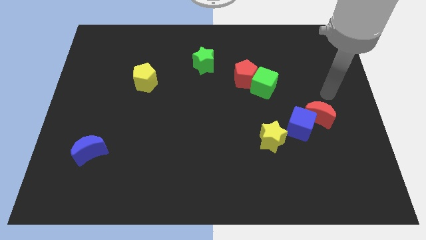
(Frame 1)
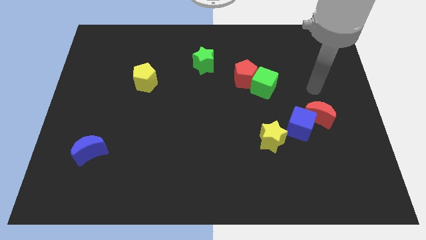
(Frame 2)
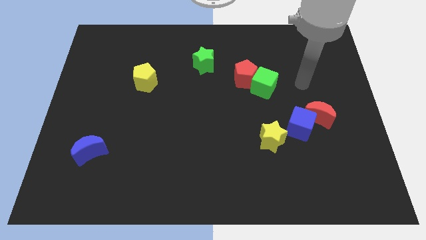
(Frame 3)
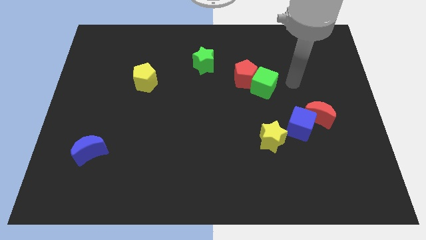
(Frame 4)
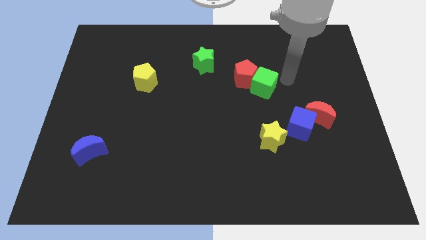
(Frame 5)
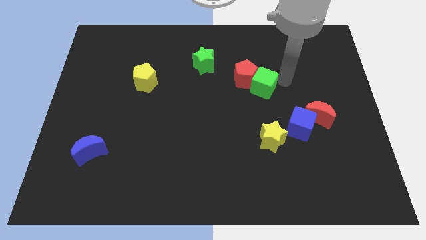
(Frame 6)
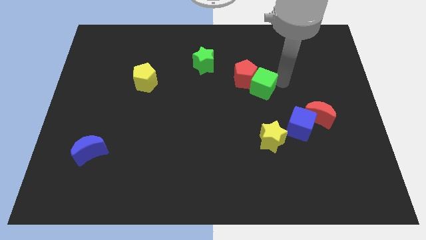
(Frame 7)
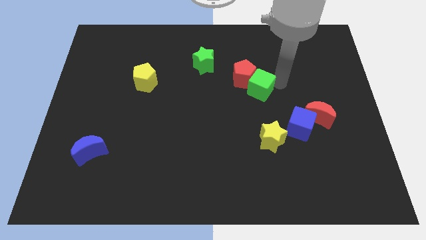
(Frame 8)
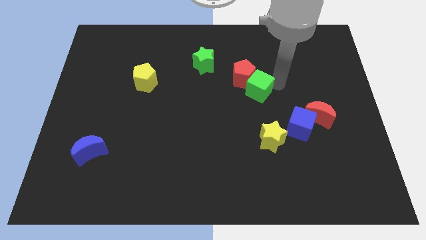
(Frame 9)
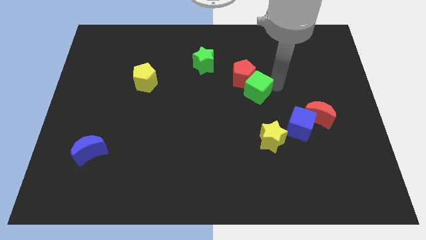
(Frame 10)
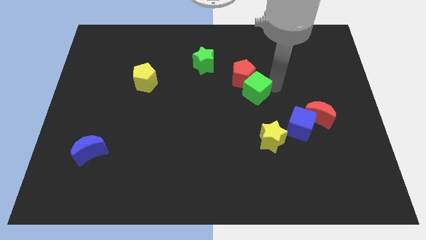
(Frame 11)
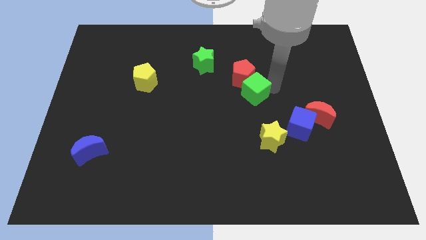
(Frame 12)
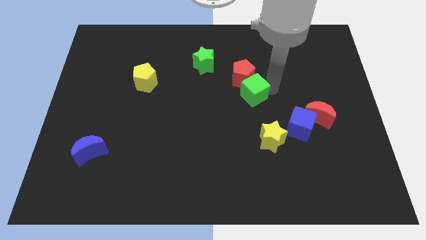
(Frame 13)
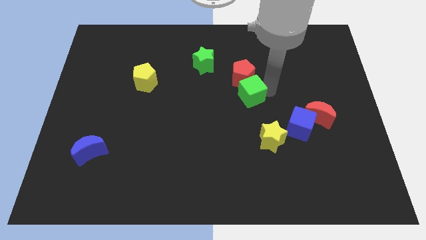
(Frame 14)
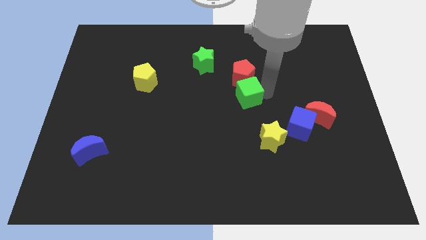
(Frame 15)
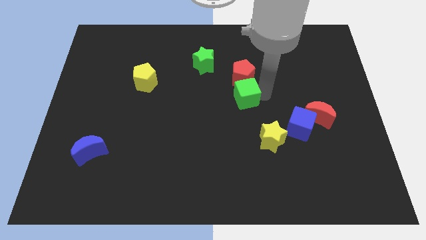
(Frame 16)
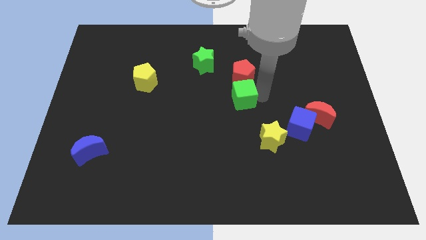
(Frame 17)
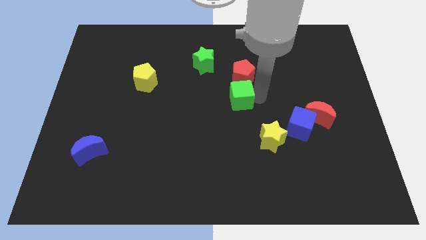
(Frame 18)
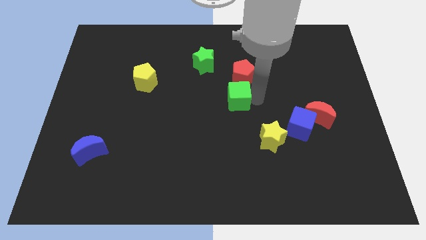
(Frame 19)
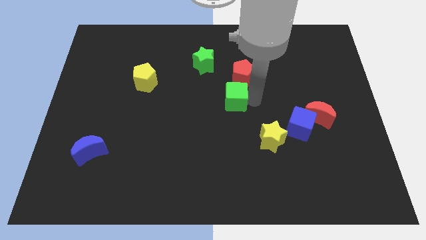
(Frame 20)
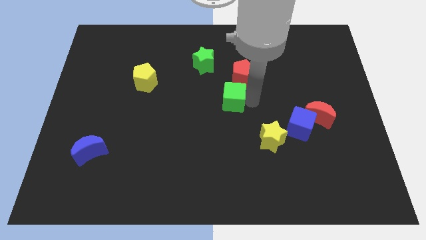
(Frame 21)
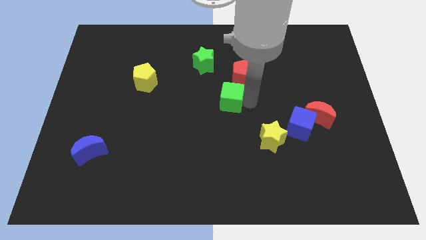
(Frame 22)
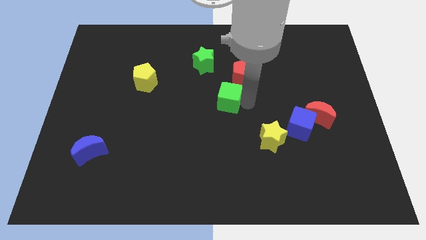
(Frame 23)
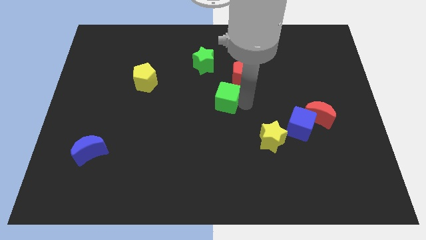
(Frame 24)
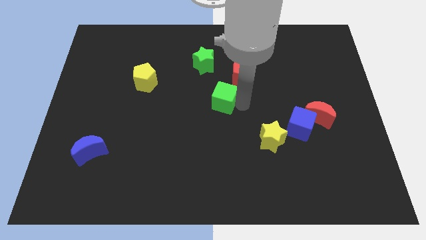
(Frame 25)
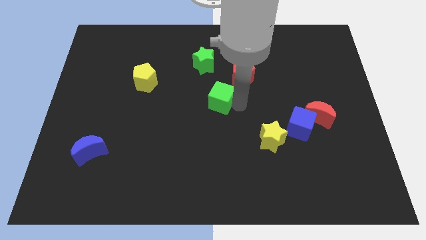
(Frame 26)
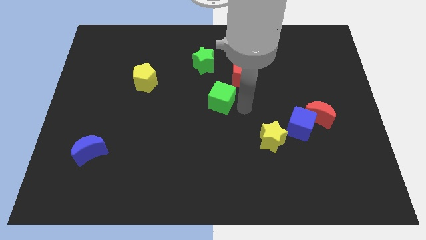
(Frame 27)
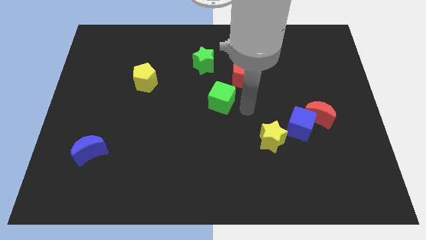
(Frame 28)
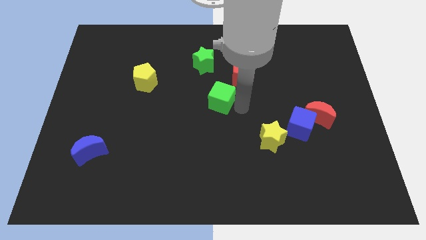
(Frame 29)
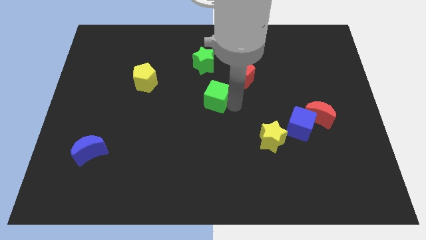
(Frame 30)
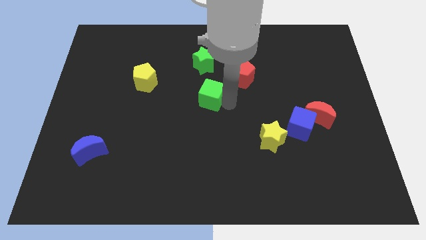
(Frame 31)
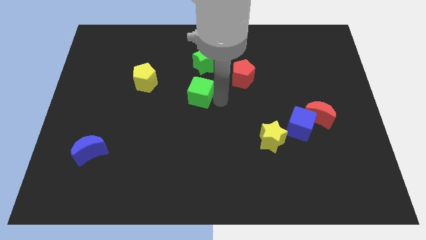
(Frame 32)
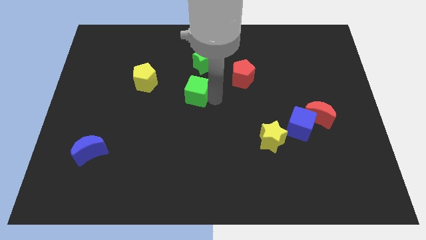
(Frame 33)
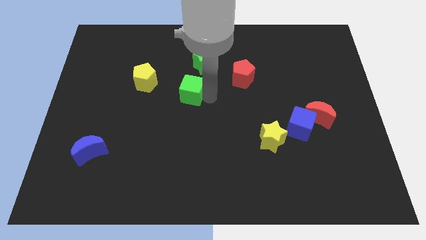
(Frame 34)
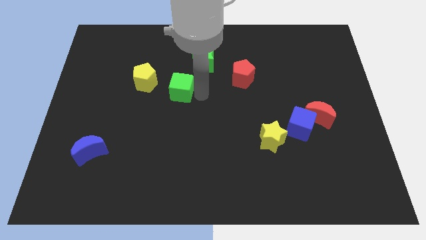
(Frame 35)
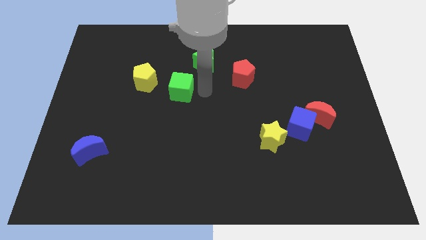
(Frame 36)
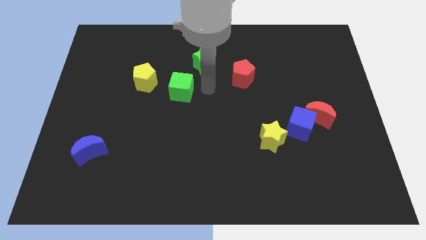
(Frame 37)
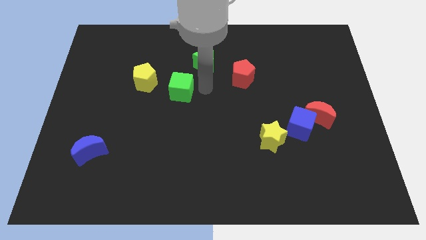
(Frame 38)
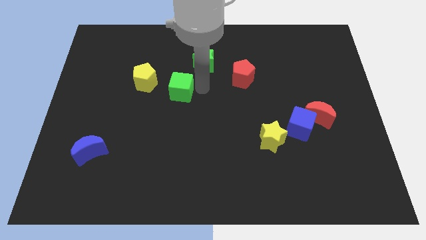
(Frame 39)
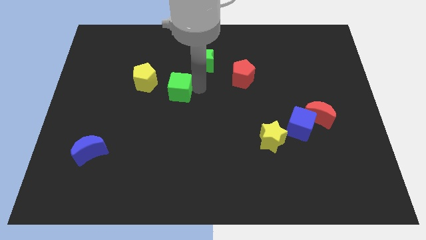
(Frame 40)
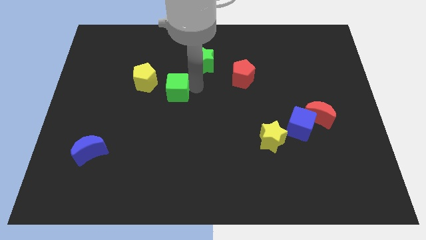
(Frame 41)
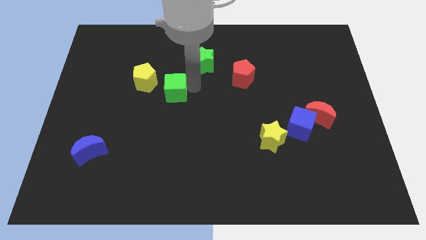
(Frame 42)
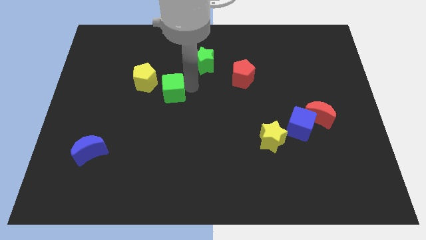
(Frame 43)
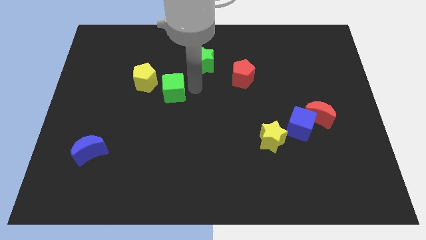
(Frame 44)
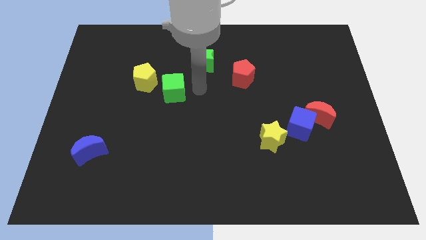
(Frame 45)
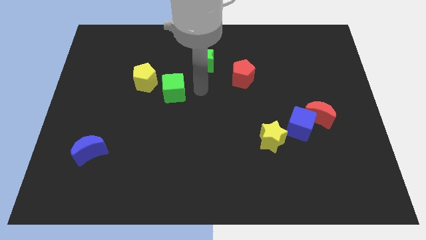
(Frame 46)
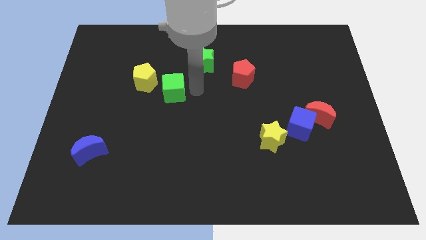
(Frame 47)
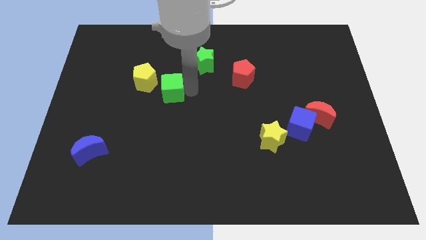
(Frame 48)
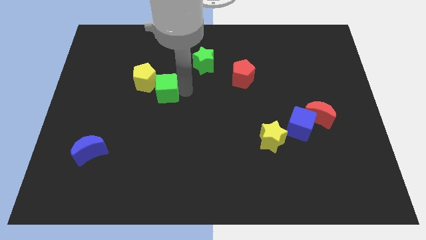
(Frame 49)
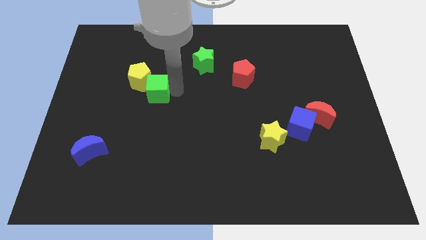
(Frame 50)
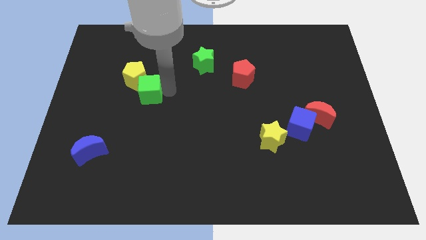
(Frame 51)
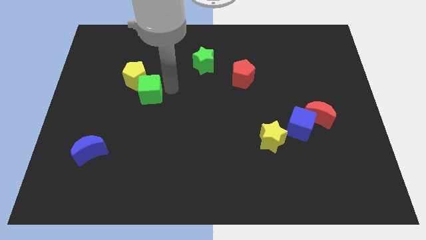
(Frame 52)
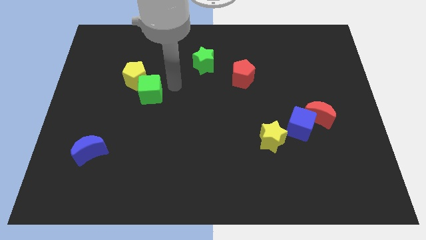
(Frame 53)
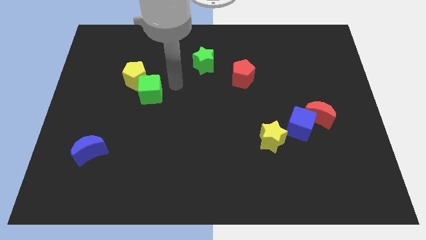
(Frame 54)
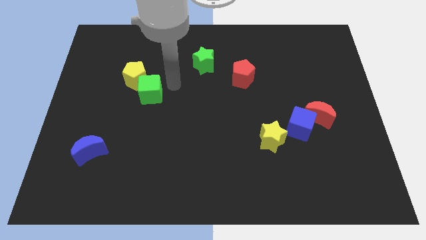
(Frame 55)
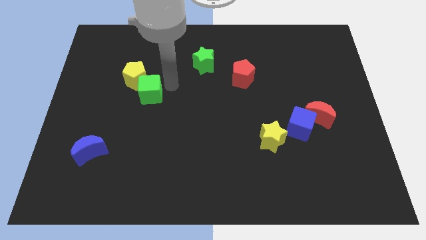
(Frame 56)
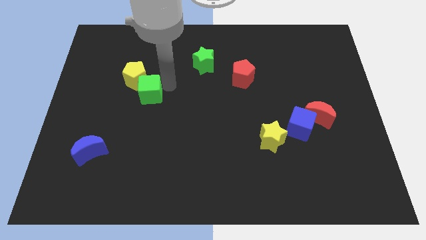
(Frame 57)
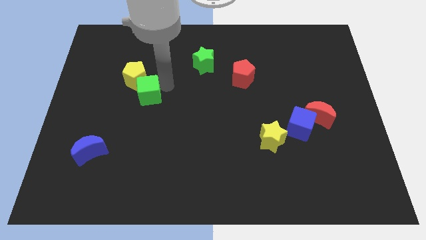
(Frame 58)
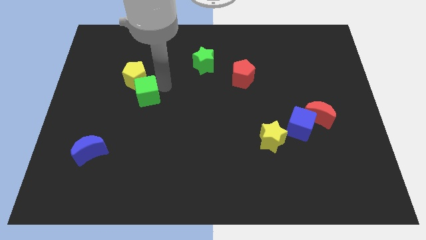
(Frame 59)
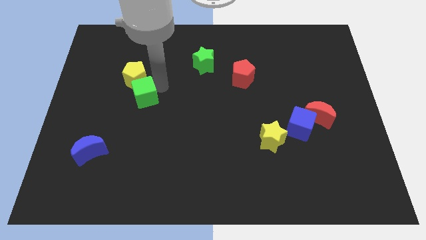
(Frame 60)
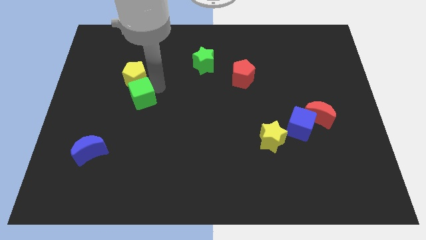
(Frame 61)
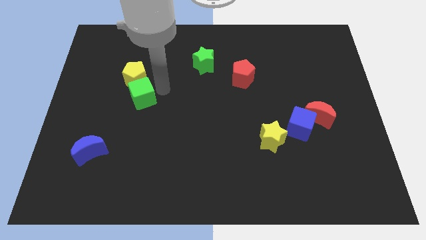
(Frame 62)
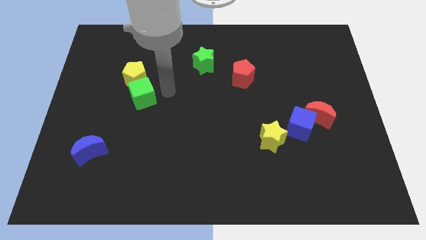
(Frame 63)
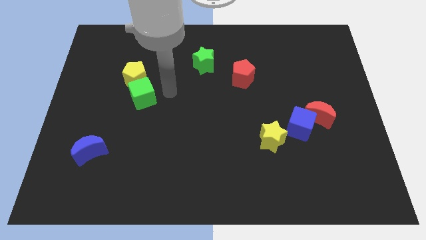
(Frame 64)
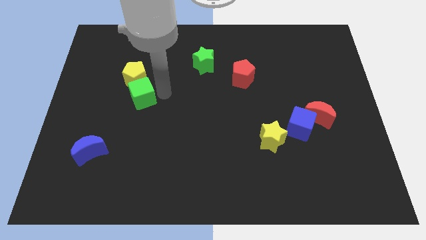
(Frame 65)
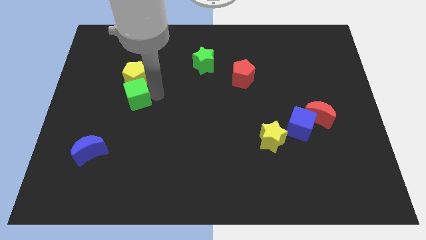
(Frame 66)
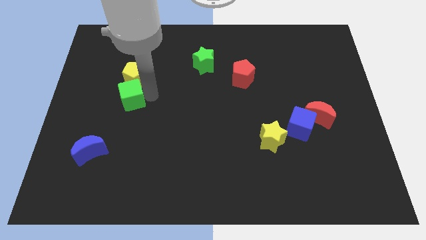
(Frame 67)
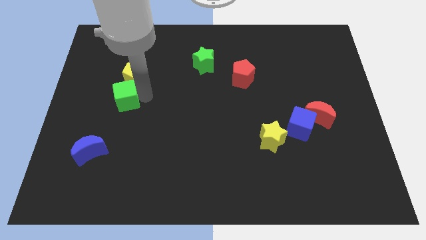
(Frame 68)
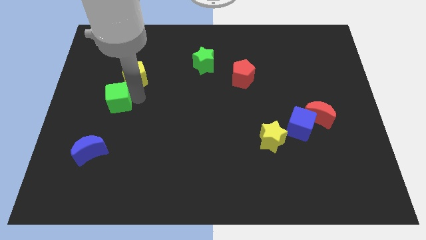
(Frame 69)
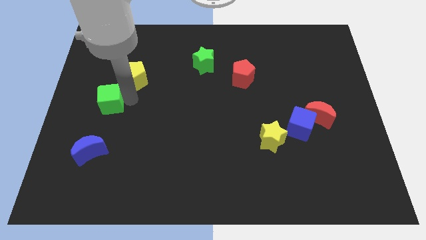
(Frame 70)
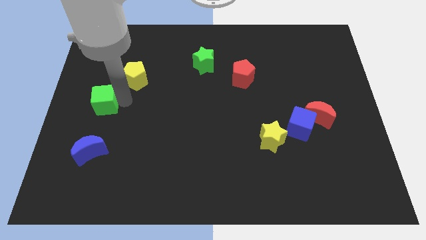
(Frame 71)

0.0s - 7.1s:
put the green cube to the center left
